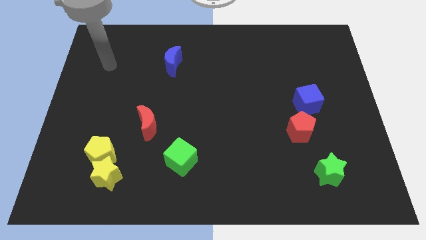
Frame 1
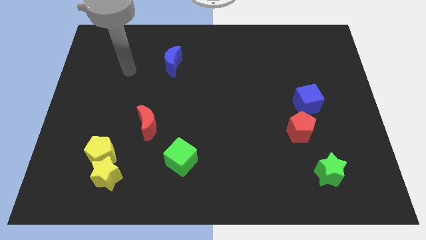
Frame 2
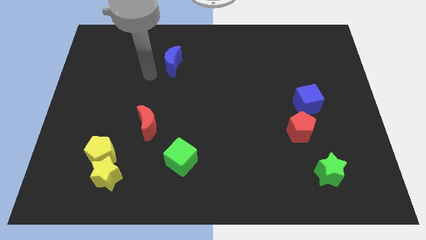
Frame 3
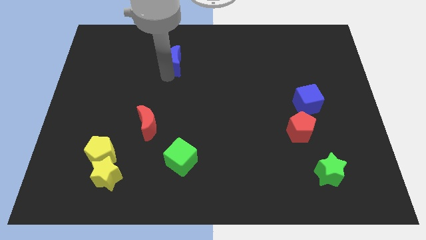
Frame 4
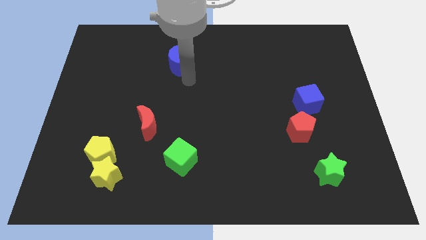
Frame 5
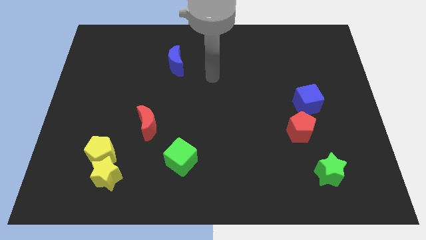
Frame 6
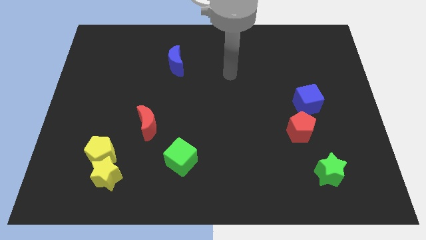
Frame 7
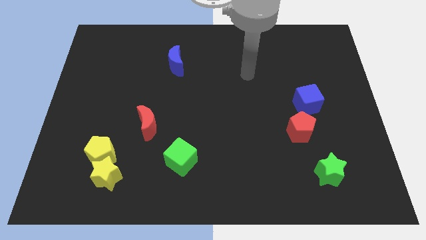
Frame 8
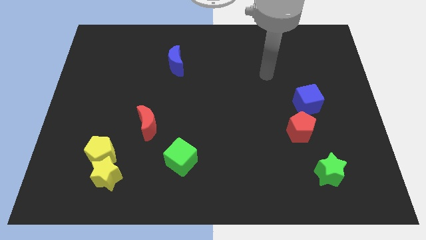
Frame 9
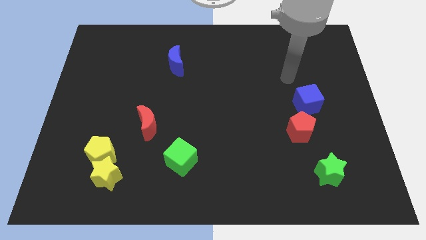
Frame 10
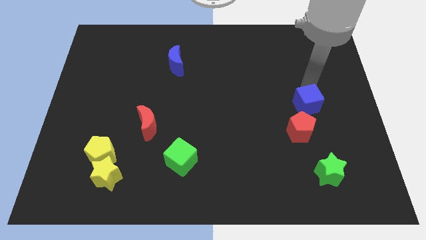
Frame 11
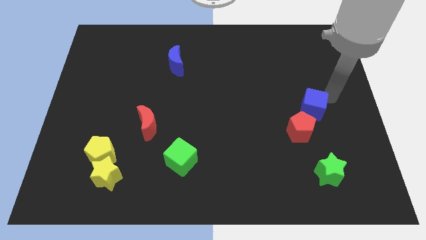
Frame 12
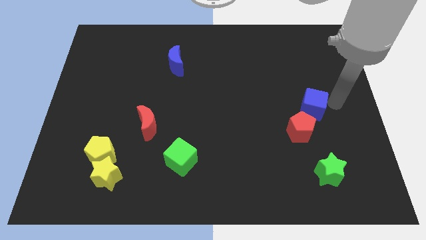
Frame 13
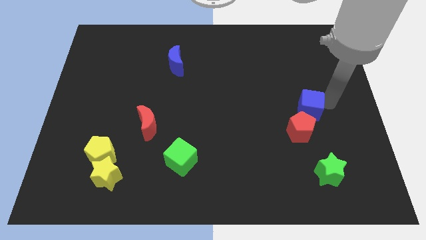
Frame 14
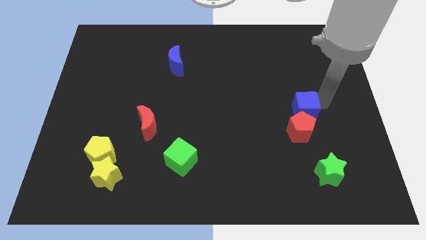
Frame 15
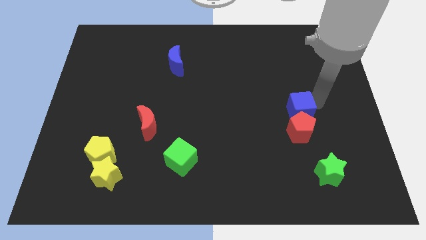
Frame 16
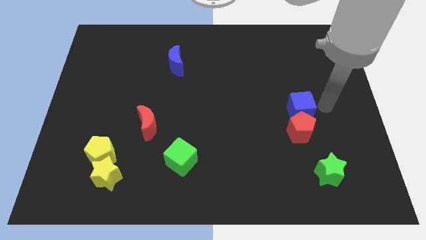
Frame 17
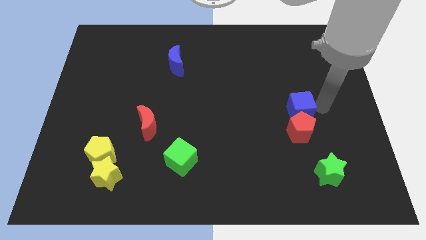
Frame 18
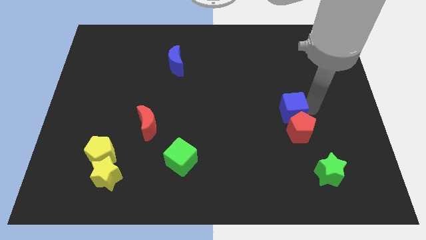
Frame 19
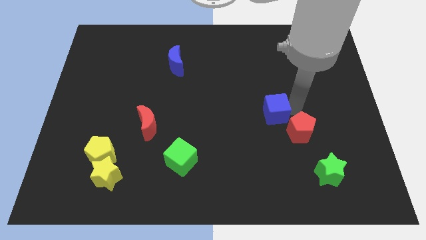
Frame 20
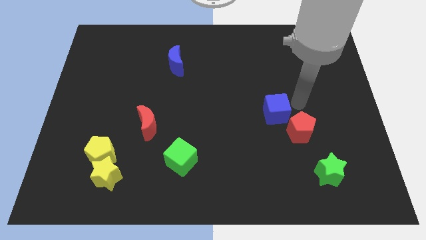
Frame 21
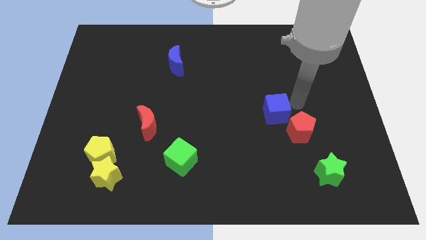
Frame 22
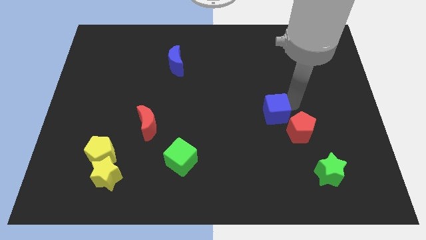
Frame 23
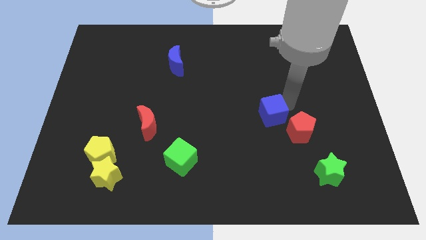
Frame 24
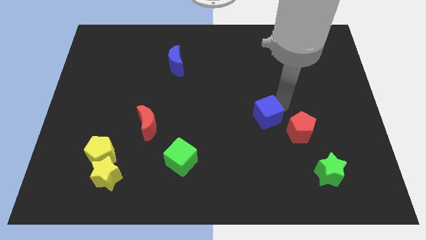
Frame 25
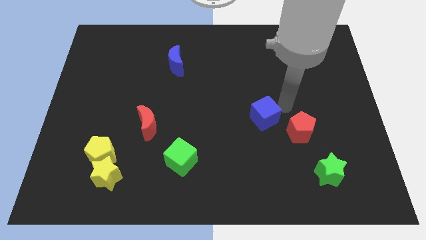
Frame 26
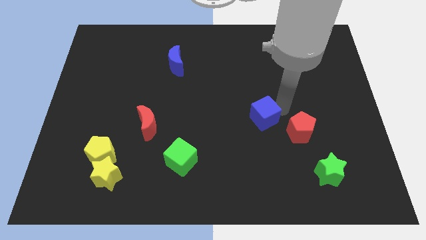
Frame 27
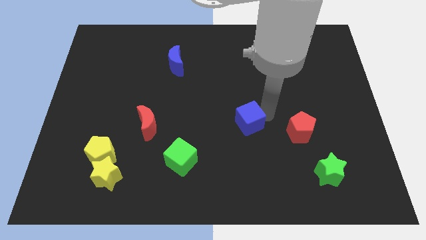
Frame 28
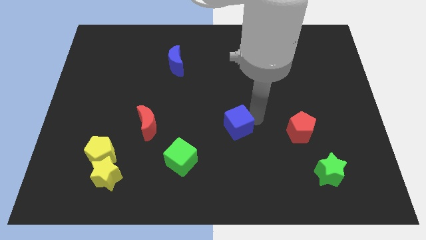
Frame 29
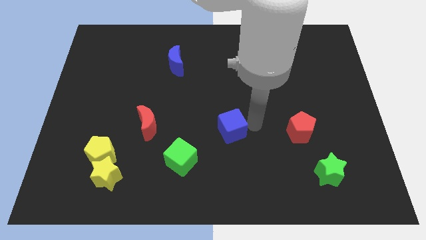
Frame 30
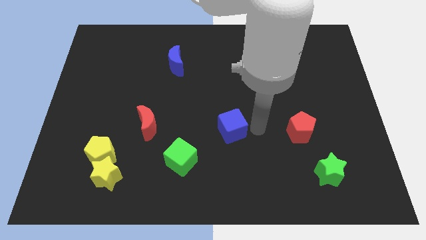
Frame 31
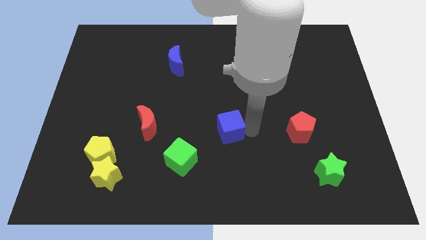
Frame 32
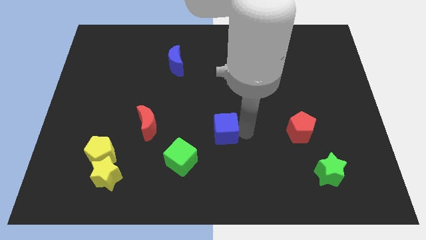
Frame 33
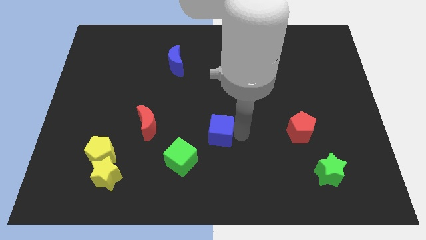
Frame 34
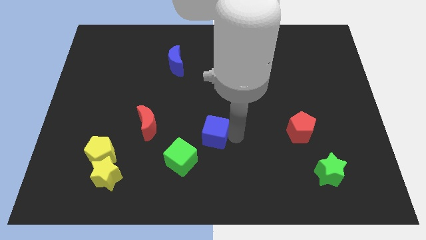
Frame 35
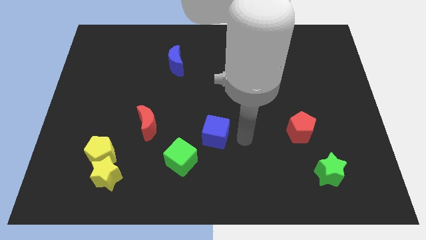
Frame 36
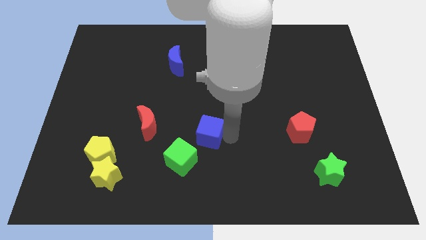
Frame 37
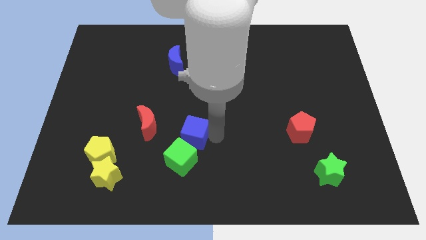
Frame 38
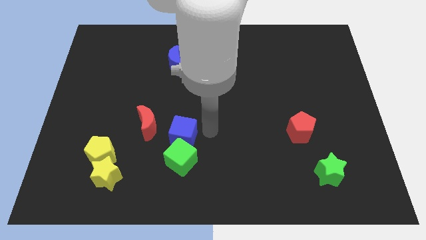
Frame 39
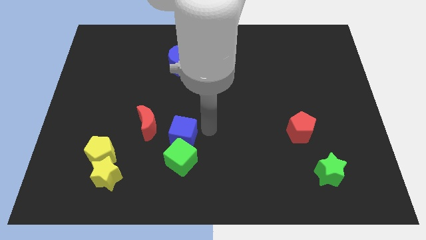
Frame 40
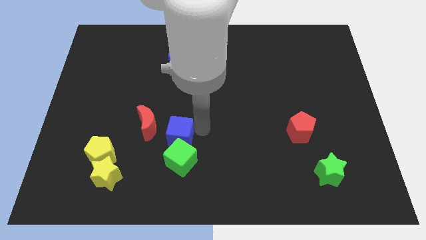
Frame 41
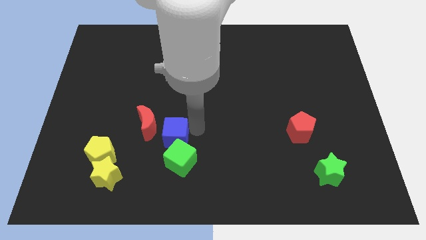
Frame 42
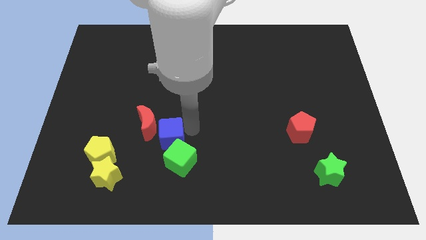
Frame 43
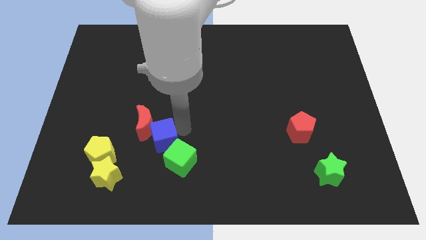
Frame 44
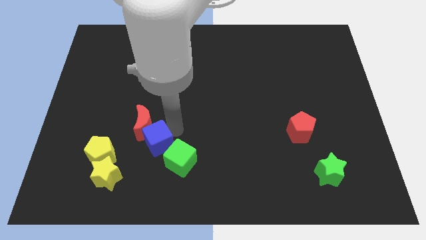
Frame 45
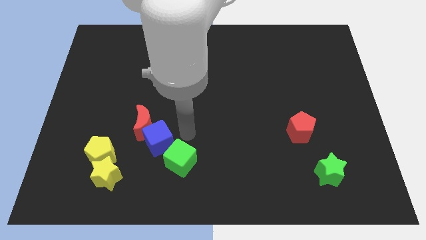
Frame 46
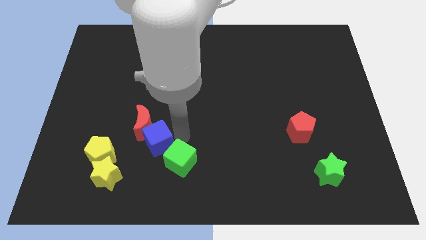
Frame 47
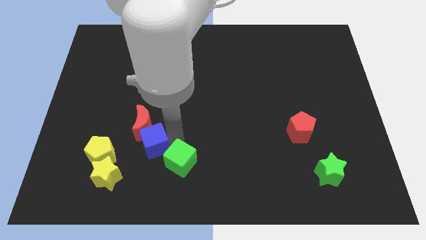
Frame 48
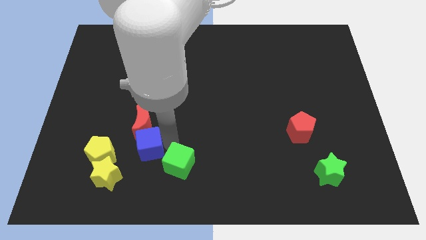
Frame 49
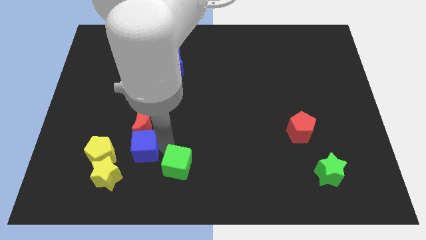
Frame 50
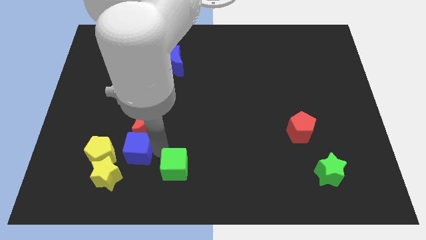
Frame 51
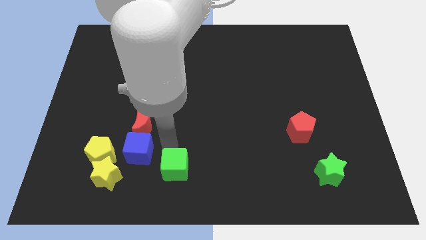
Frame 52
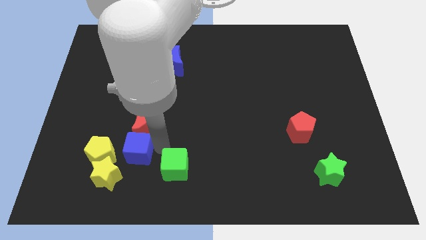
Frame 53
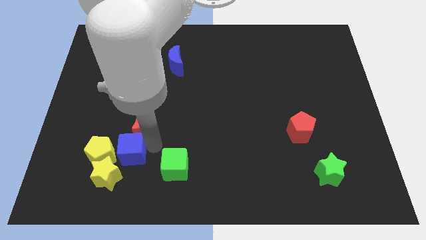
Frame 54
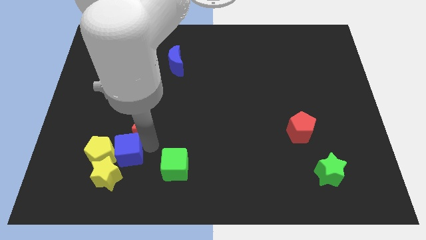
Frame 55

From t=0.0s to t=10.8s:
put the blue cube to the yellow pentagon

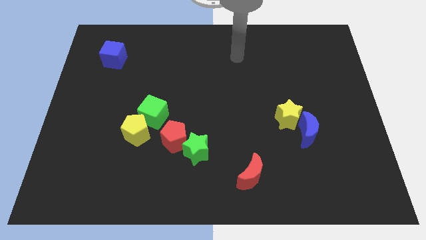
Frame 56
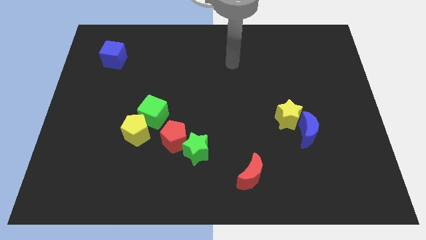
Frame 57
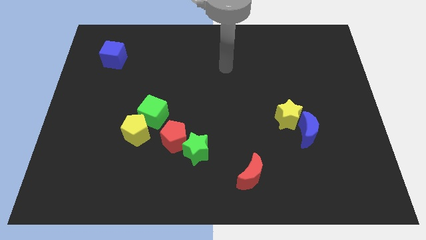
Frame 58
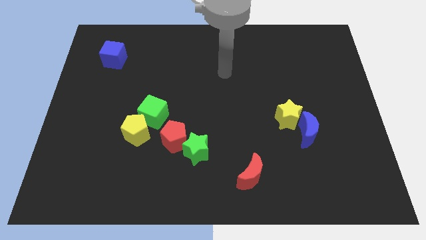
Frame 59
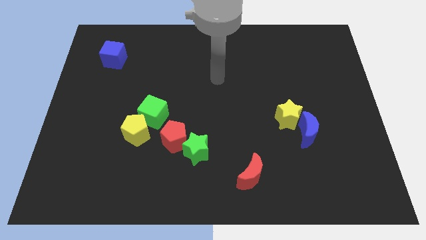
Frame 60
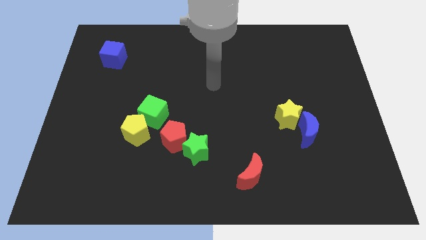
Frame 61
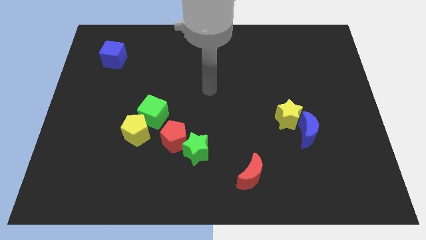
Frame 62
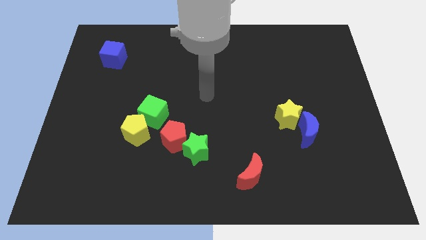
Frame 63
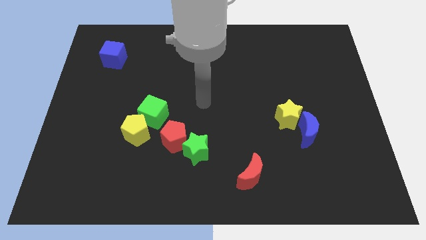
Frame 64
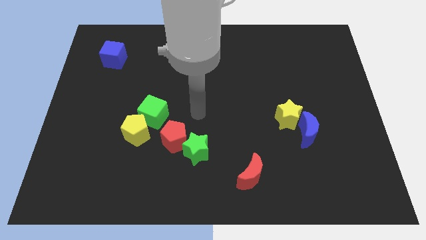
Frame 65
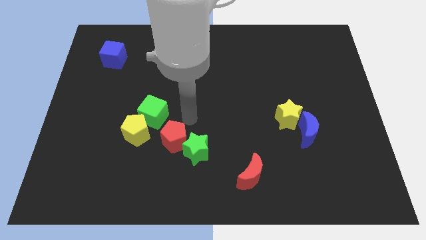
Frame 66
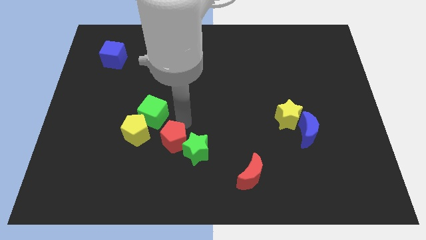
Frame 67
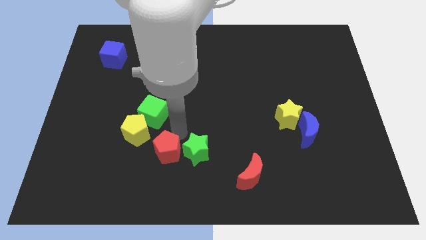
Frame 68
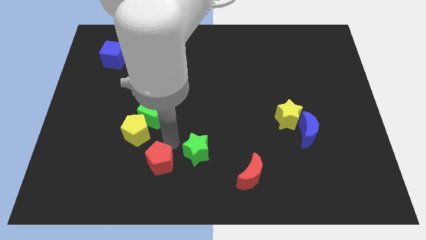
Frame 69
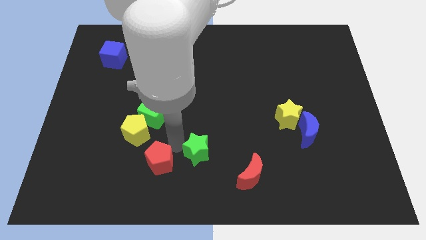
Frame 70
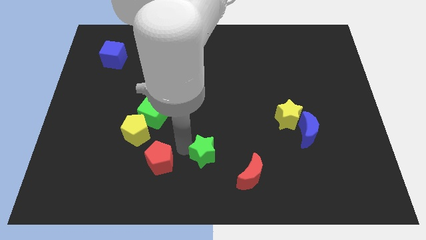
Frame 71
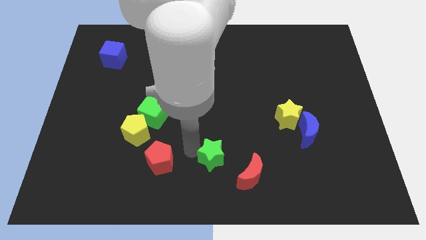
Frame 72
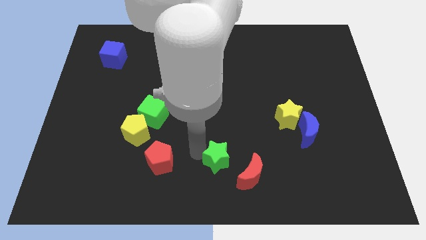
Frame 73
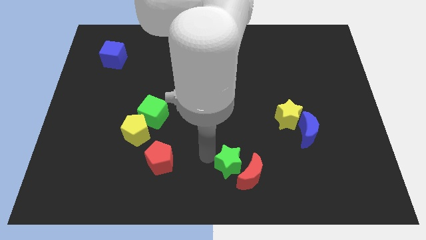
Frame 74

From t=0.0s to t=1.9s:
put the green star to the red moon
